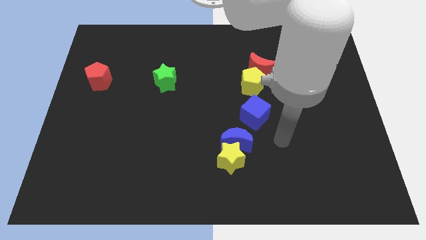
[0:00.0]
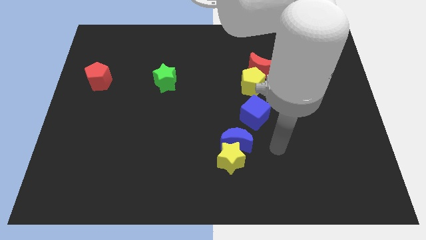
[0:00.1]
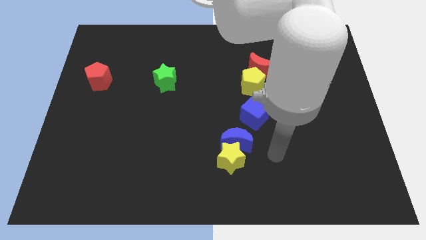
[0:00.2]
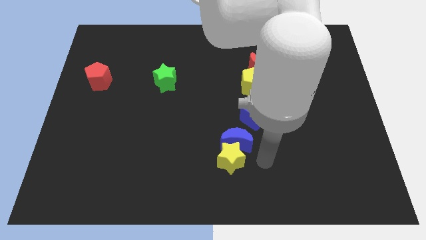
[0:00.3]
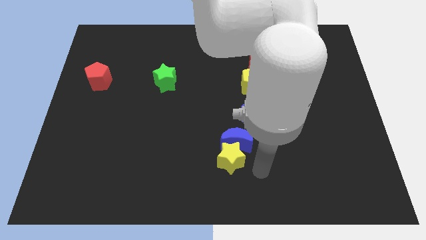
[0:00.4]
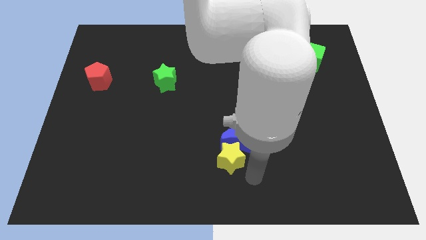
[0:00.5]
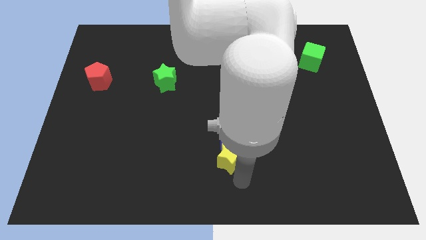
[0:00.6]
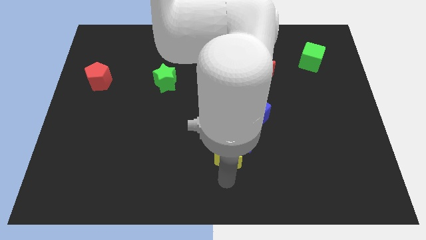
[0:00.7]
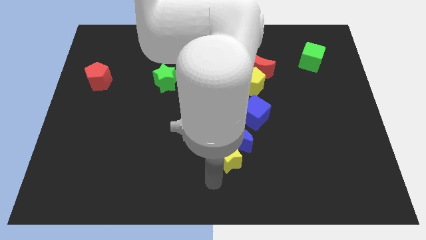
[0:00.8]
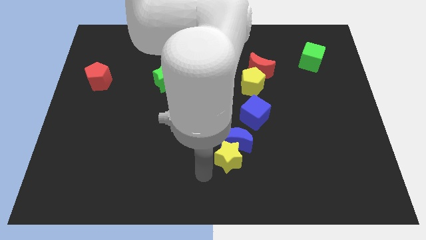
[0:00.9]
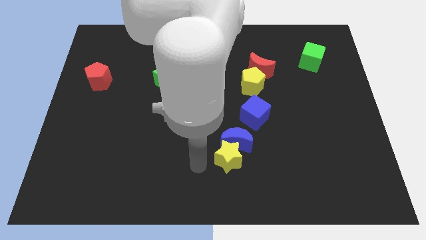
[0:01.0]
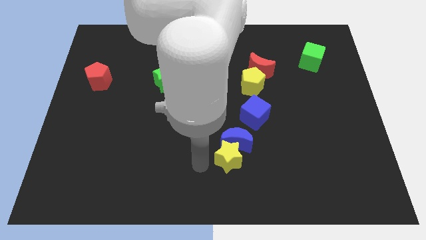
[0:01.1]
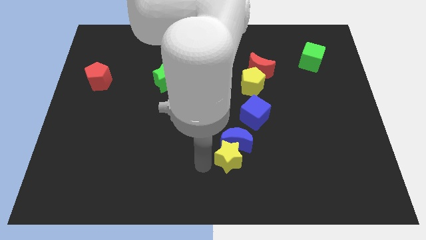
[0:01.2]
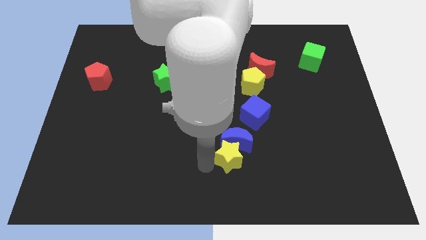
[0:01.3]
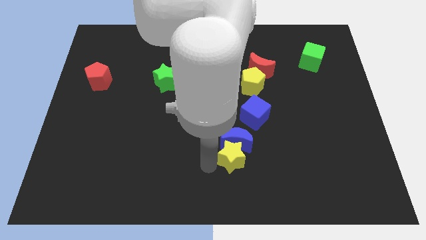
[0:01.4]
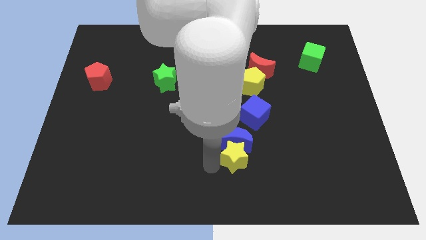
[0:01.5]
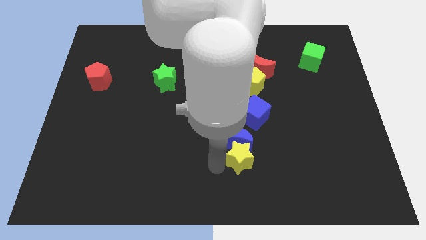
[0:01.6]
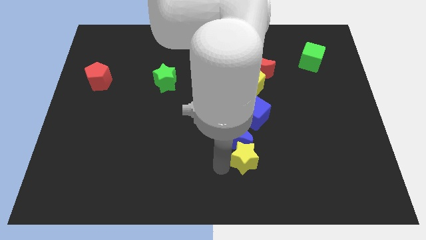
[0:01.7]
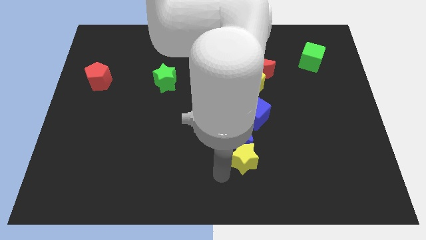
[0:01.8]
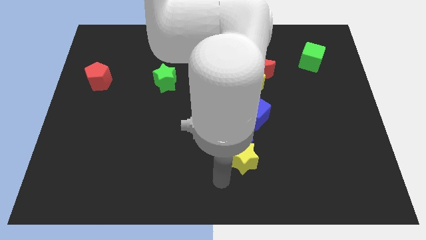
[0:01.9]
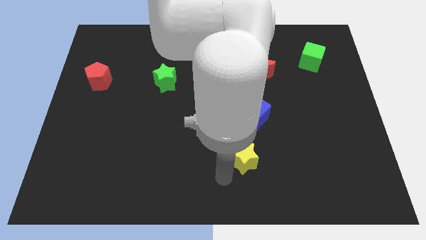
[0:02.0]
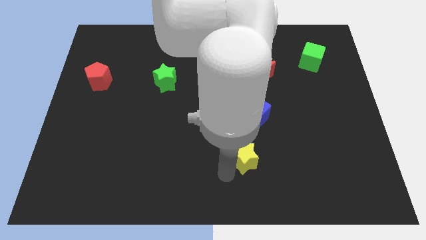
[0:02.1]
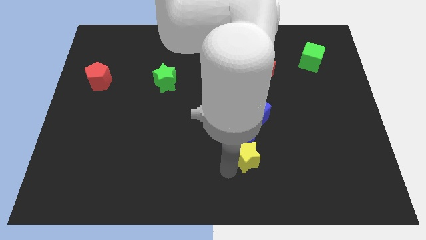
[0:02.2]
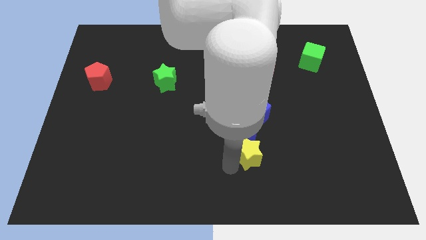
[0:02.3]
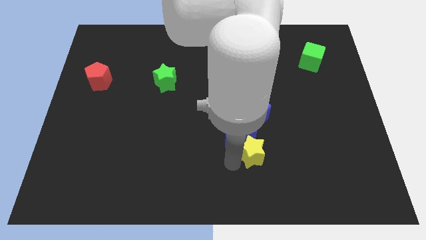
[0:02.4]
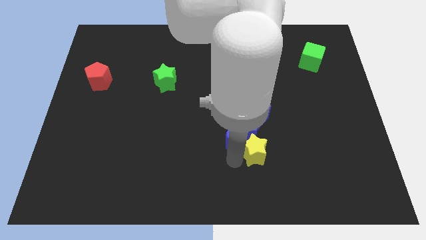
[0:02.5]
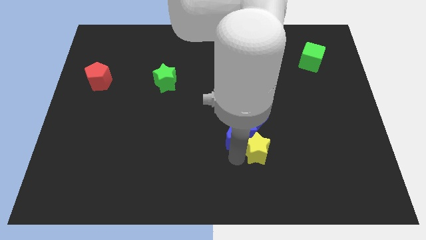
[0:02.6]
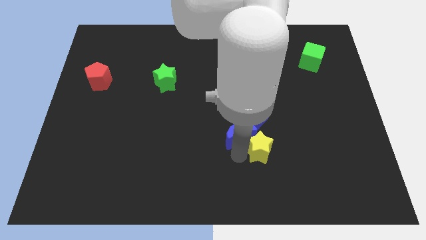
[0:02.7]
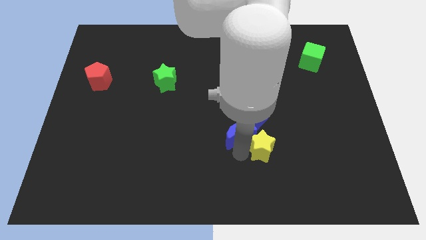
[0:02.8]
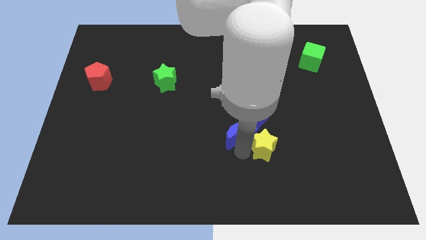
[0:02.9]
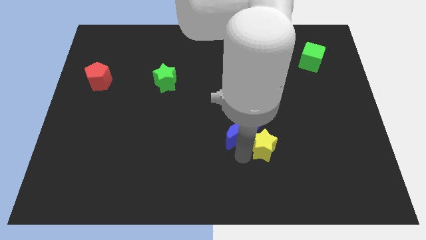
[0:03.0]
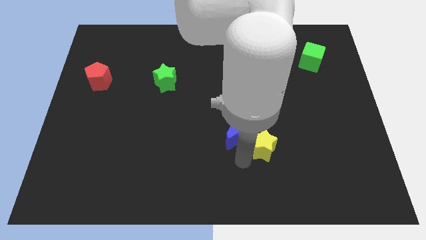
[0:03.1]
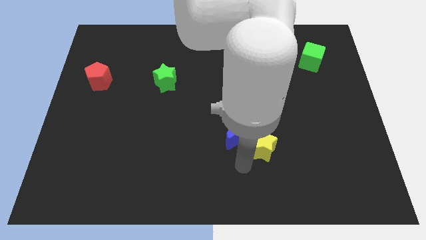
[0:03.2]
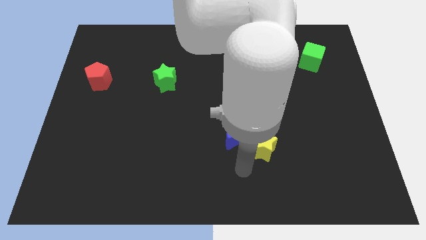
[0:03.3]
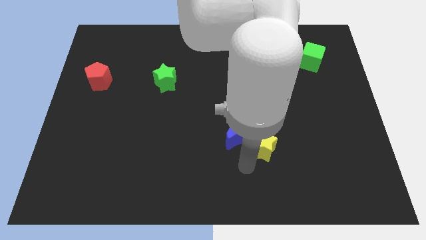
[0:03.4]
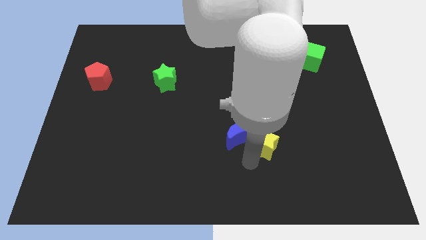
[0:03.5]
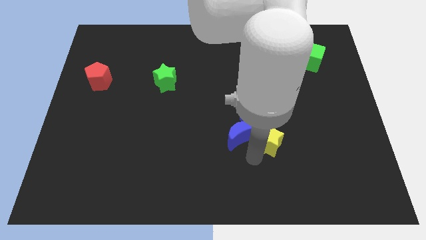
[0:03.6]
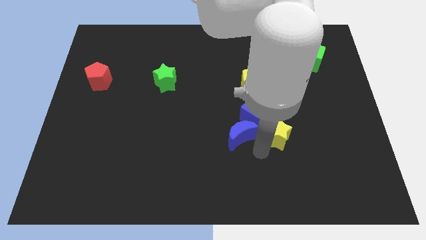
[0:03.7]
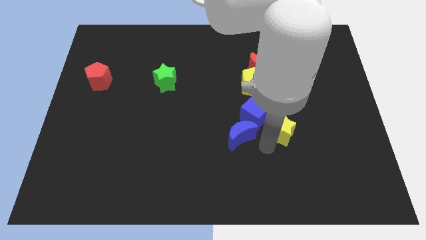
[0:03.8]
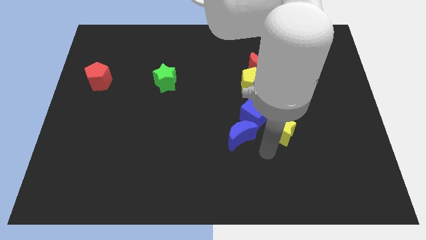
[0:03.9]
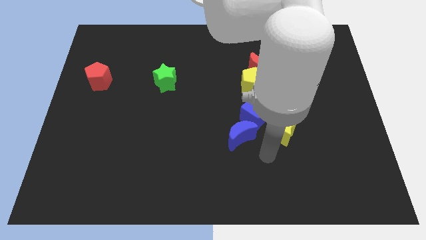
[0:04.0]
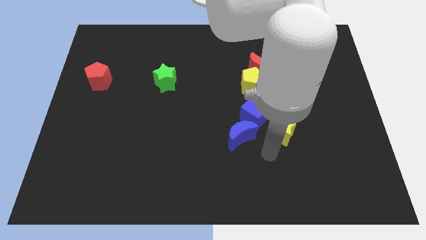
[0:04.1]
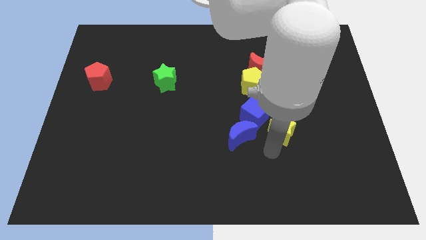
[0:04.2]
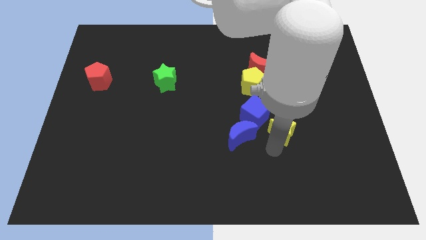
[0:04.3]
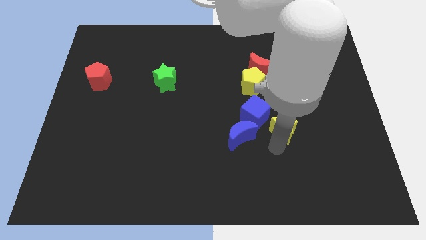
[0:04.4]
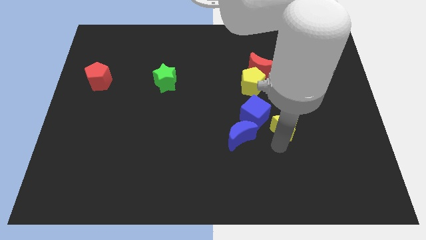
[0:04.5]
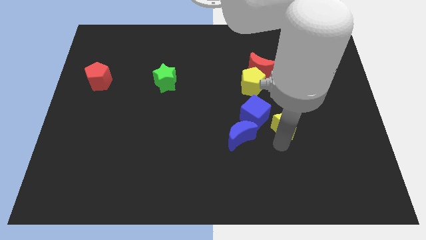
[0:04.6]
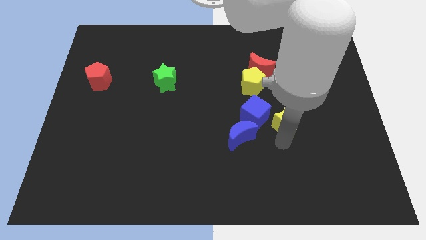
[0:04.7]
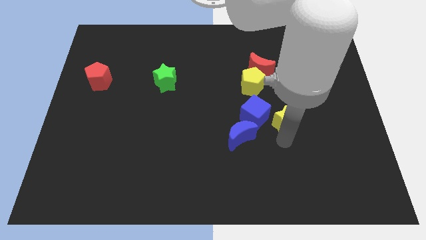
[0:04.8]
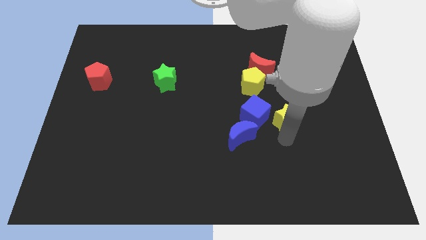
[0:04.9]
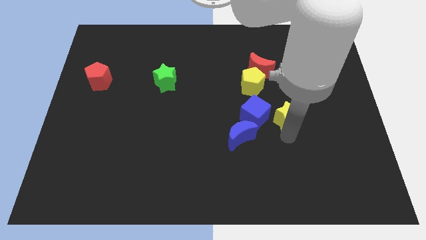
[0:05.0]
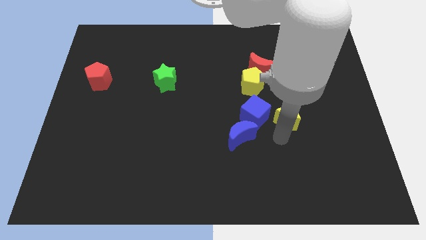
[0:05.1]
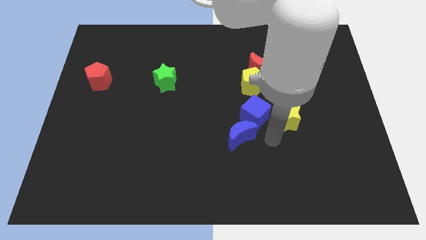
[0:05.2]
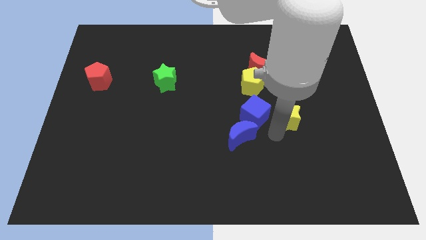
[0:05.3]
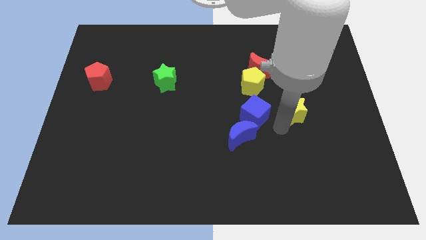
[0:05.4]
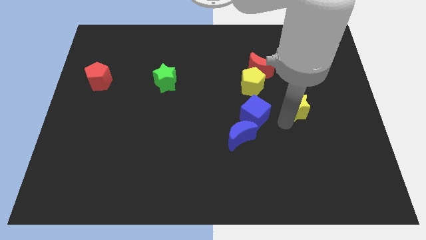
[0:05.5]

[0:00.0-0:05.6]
push the yellow star up and to the right diagonally

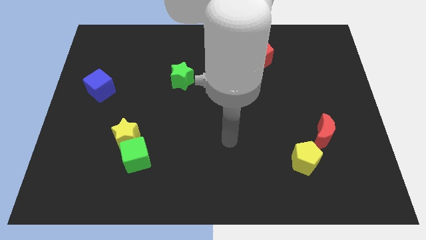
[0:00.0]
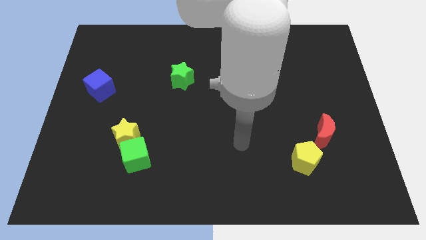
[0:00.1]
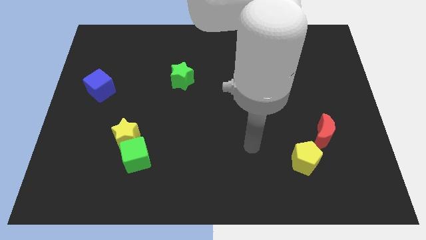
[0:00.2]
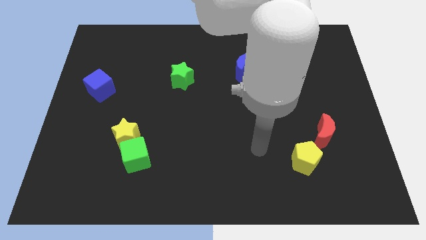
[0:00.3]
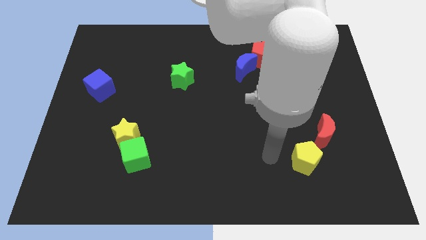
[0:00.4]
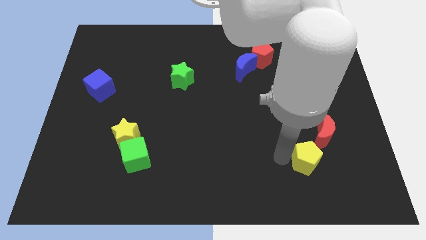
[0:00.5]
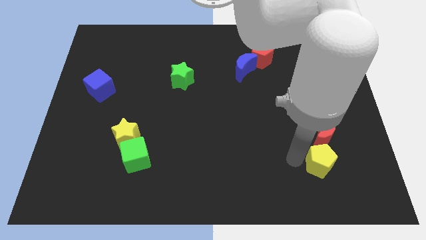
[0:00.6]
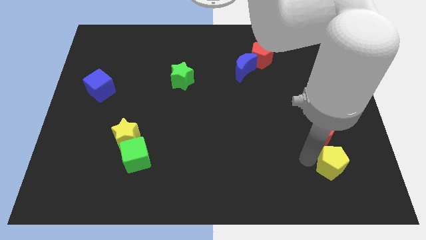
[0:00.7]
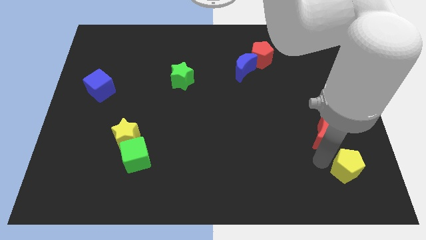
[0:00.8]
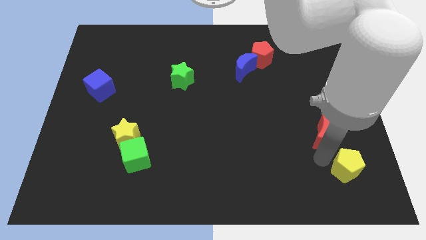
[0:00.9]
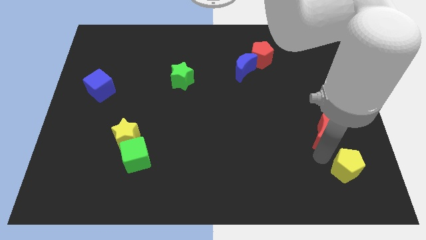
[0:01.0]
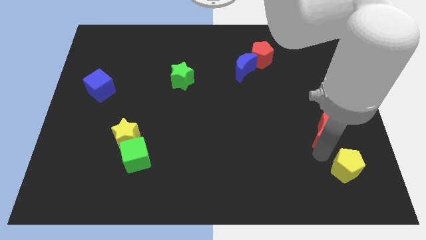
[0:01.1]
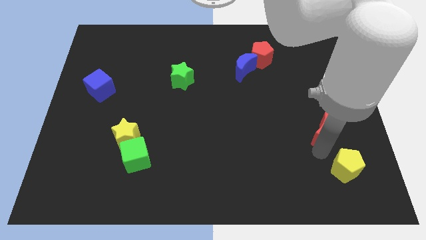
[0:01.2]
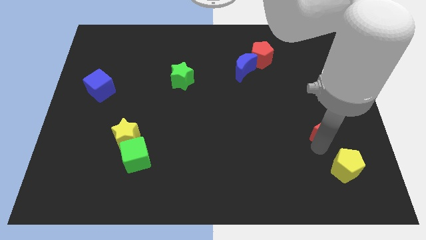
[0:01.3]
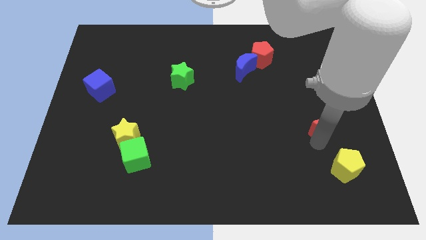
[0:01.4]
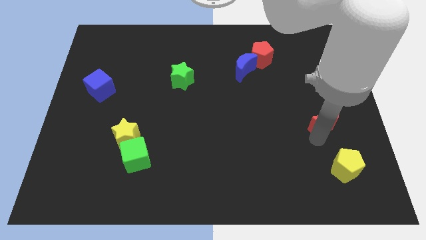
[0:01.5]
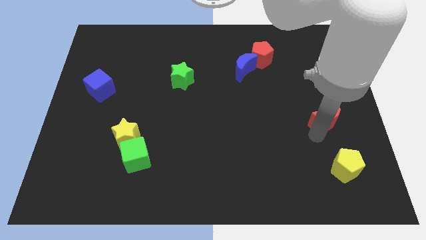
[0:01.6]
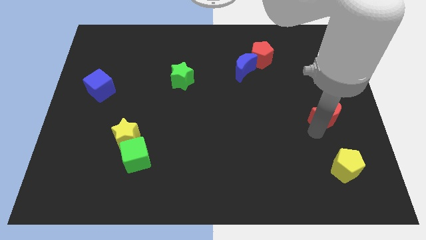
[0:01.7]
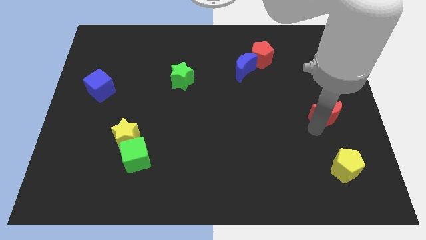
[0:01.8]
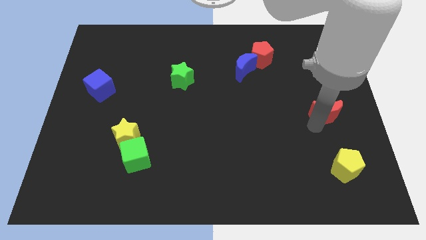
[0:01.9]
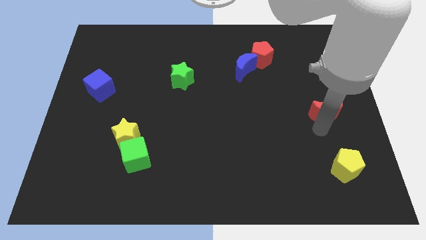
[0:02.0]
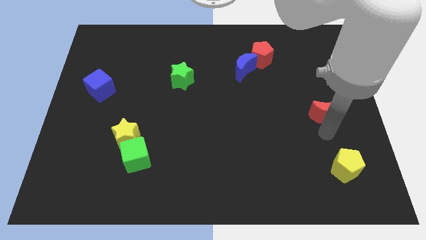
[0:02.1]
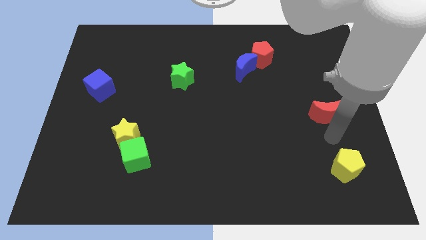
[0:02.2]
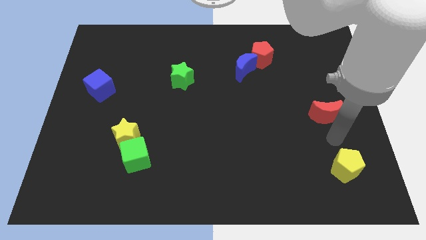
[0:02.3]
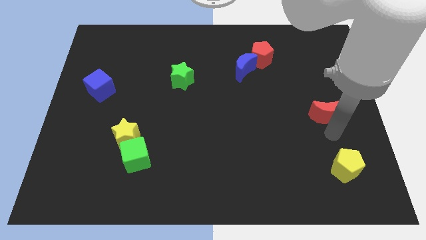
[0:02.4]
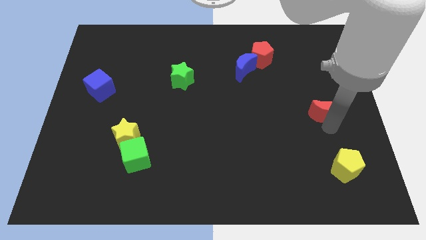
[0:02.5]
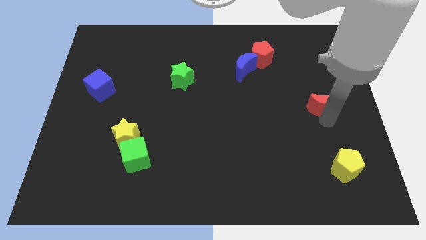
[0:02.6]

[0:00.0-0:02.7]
slightly move the red moon upwards
